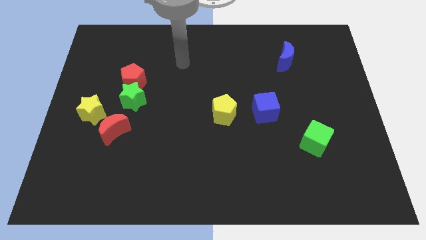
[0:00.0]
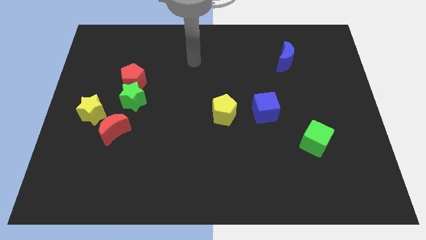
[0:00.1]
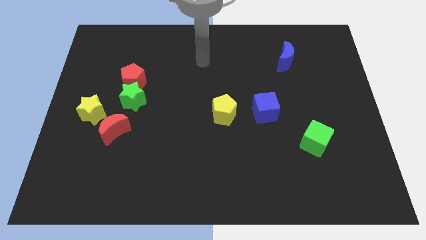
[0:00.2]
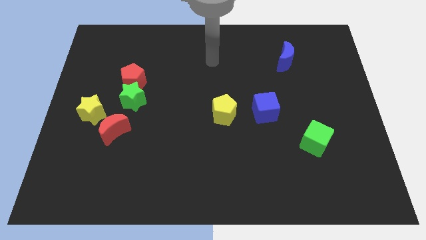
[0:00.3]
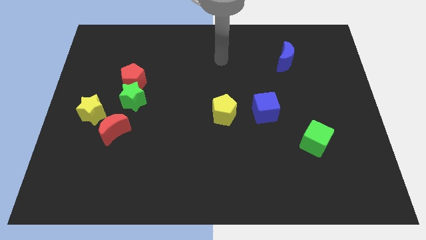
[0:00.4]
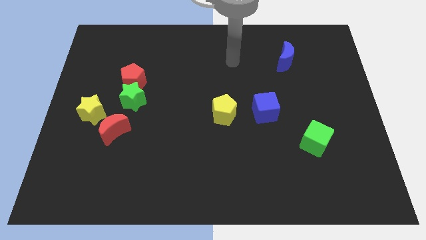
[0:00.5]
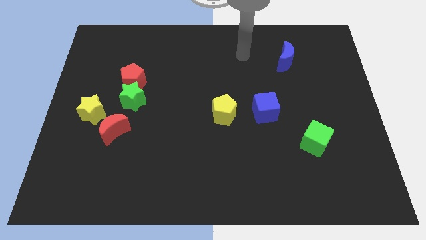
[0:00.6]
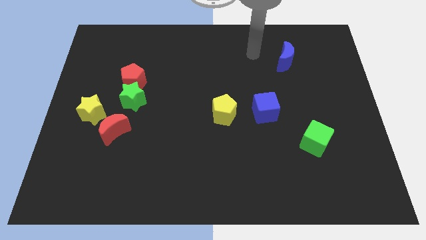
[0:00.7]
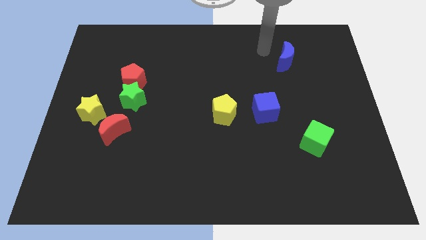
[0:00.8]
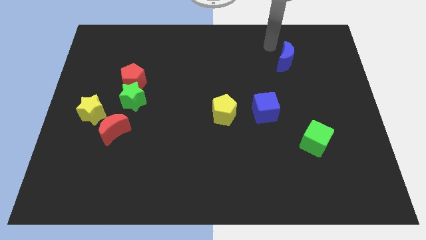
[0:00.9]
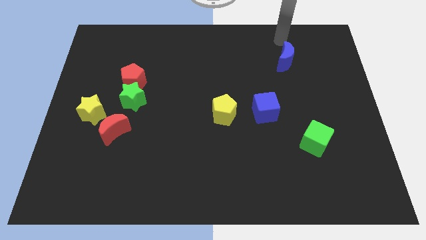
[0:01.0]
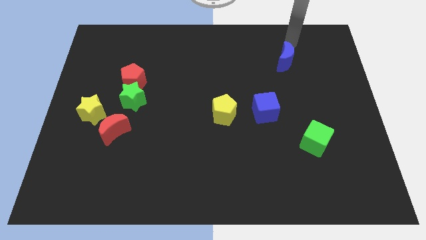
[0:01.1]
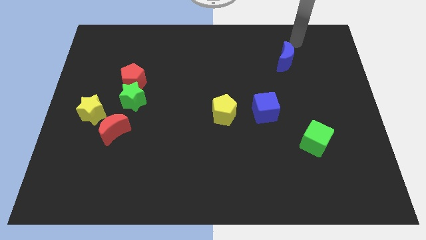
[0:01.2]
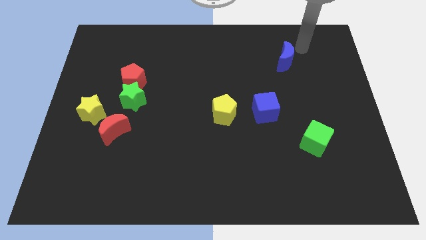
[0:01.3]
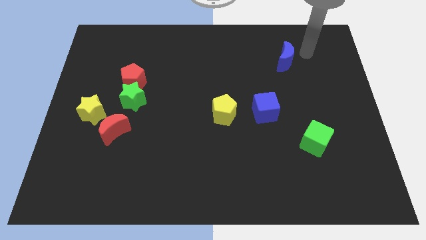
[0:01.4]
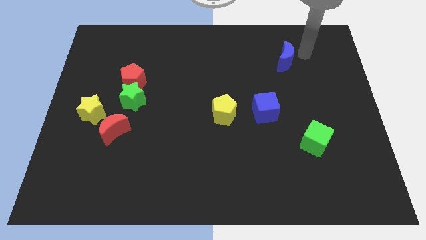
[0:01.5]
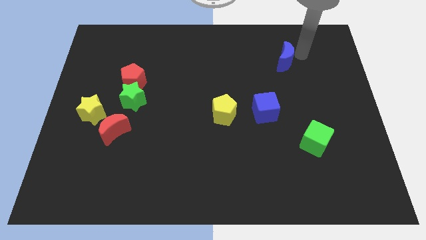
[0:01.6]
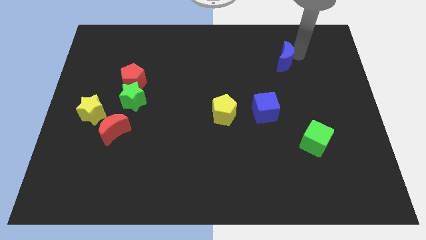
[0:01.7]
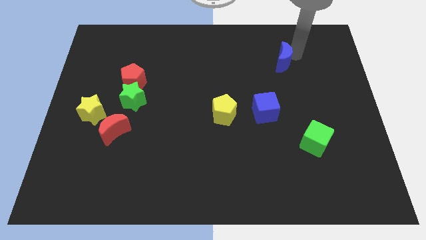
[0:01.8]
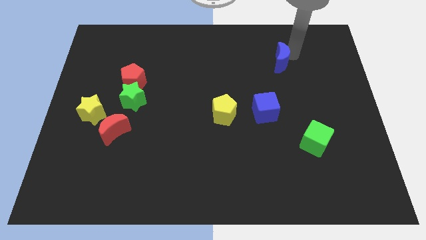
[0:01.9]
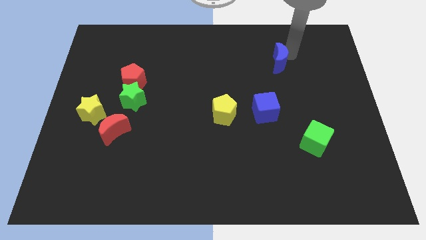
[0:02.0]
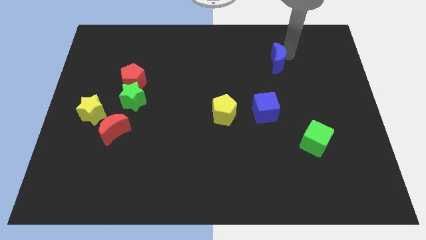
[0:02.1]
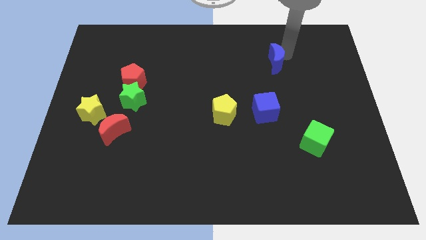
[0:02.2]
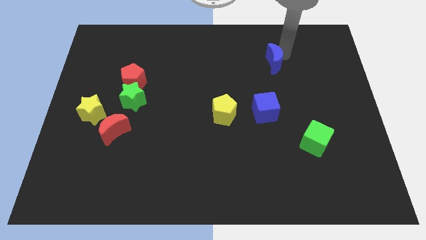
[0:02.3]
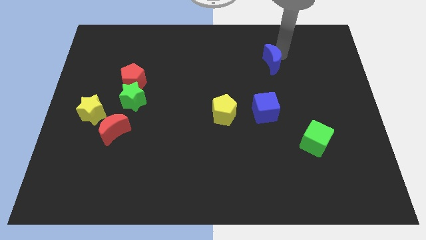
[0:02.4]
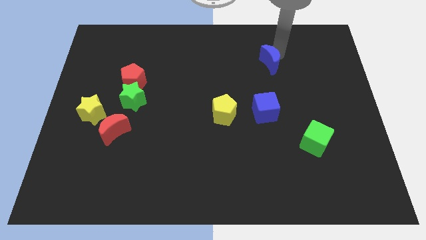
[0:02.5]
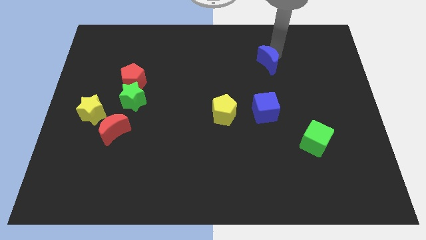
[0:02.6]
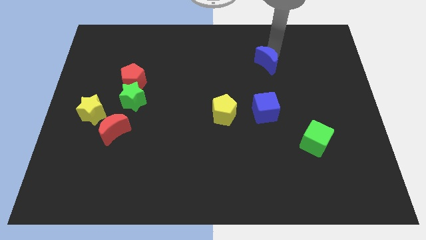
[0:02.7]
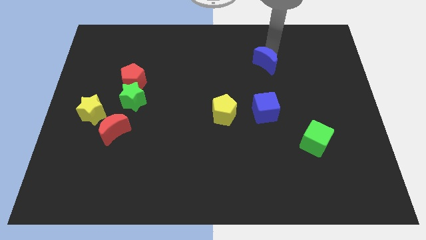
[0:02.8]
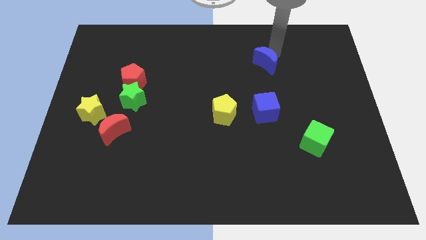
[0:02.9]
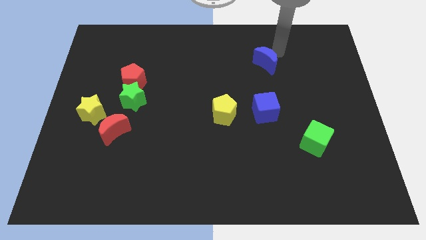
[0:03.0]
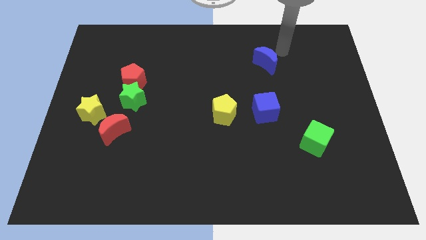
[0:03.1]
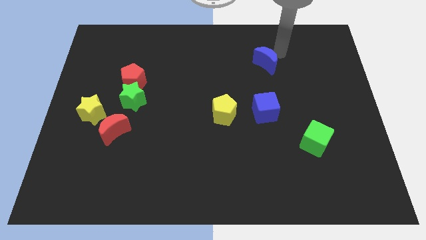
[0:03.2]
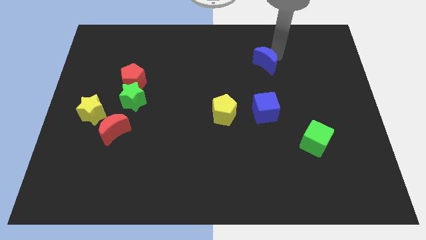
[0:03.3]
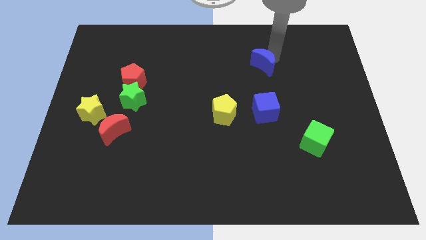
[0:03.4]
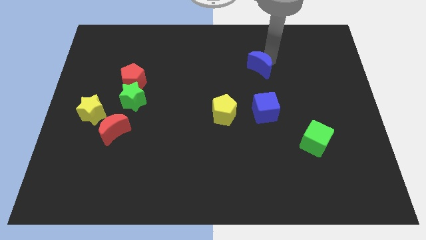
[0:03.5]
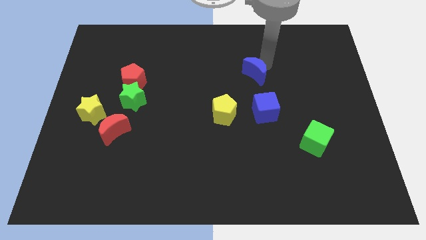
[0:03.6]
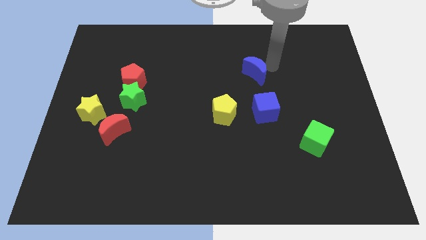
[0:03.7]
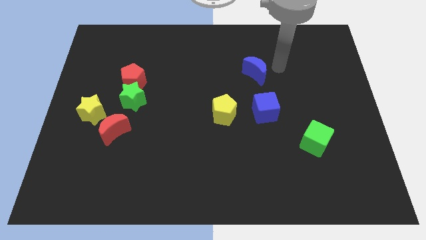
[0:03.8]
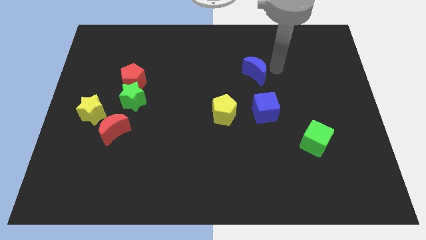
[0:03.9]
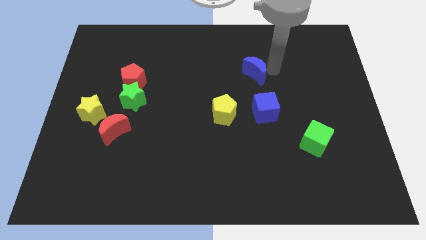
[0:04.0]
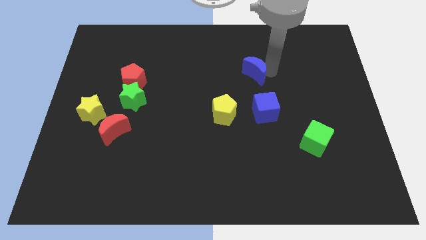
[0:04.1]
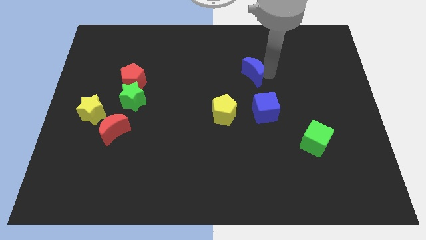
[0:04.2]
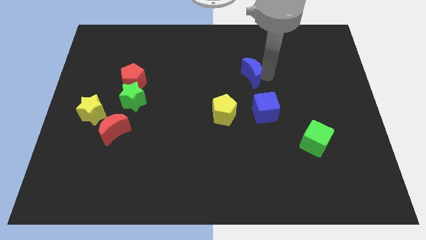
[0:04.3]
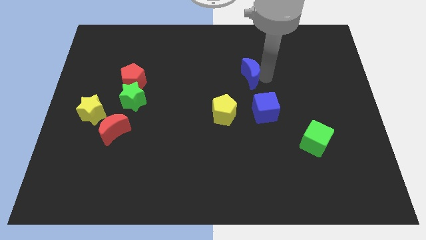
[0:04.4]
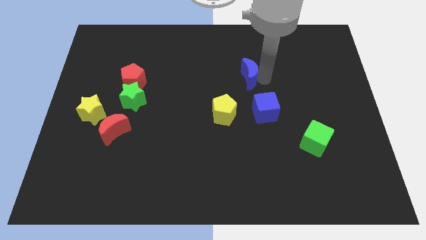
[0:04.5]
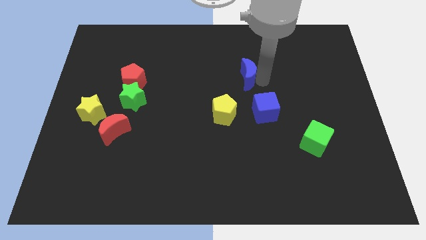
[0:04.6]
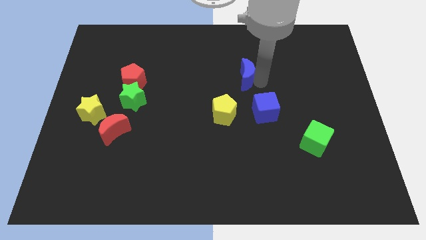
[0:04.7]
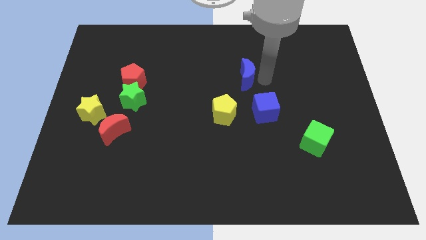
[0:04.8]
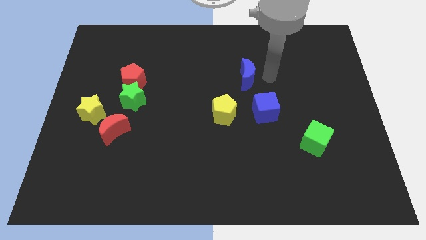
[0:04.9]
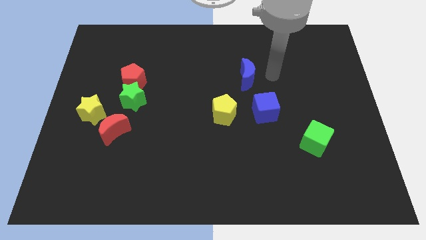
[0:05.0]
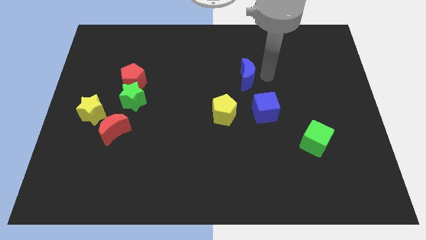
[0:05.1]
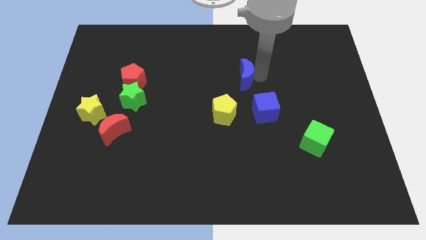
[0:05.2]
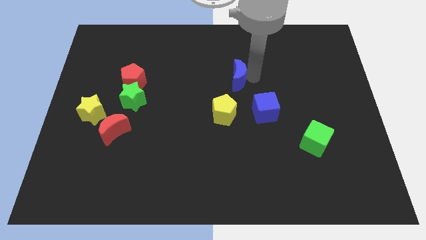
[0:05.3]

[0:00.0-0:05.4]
move the blue moon above the yellow pentagon

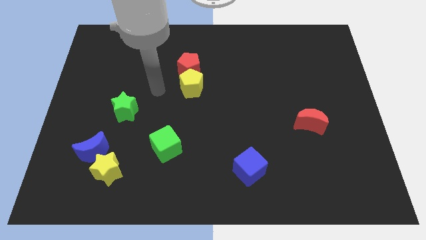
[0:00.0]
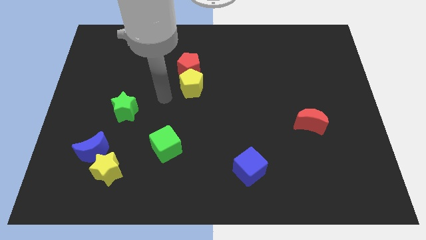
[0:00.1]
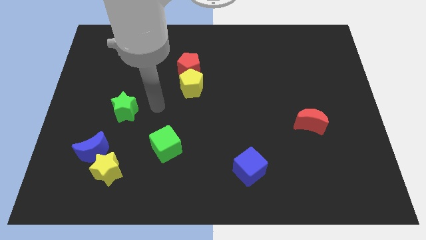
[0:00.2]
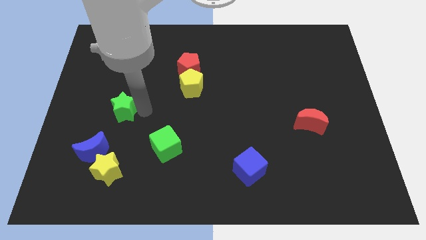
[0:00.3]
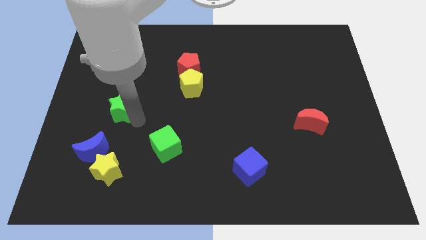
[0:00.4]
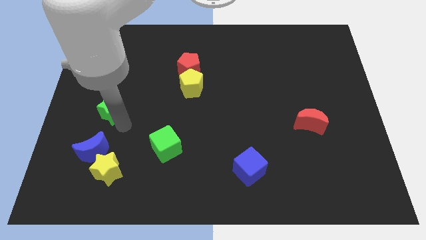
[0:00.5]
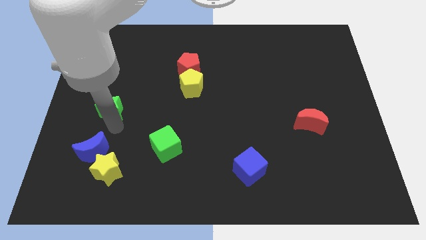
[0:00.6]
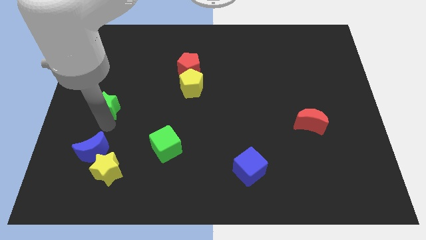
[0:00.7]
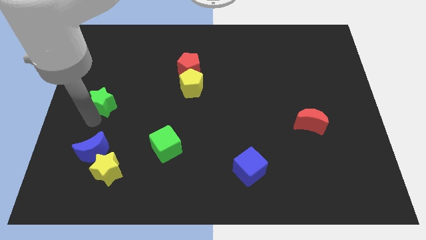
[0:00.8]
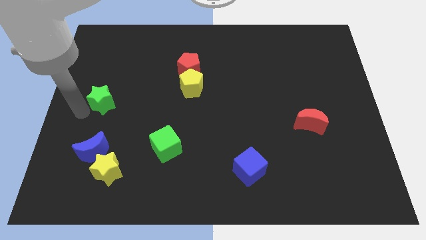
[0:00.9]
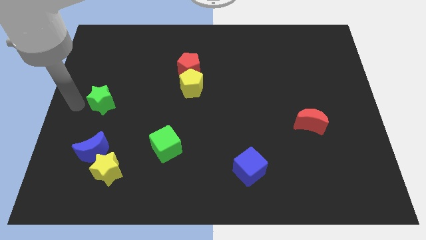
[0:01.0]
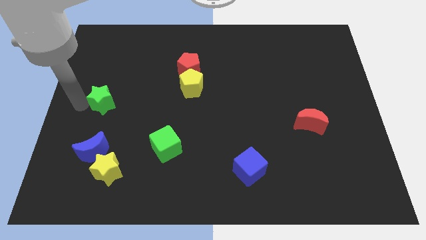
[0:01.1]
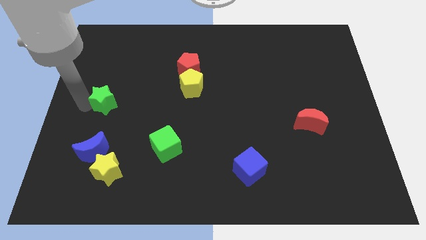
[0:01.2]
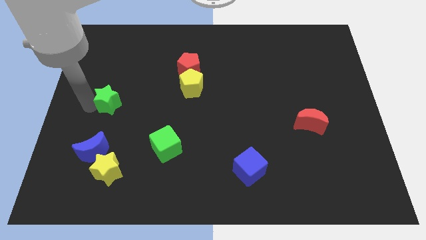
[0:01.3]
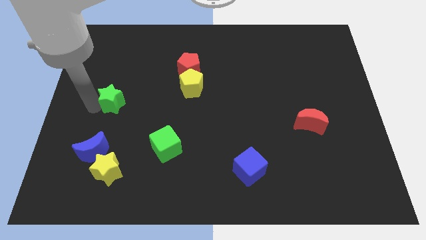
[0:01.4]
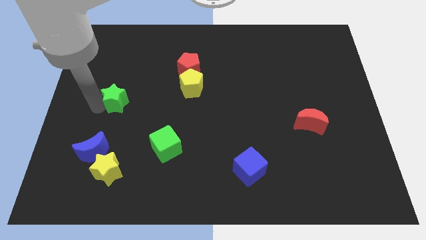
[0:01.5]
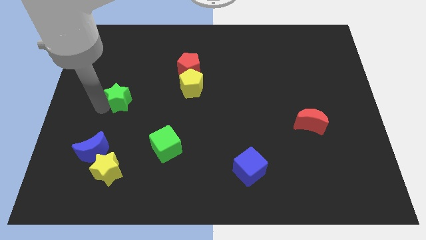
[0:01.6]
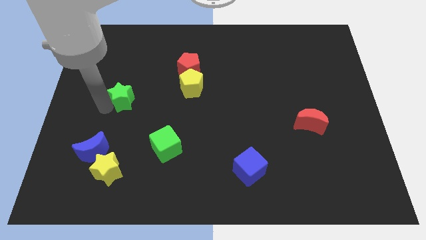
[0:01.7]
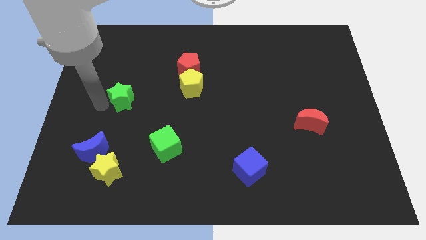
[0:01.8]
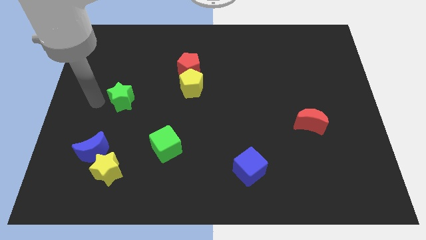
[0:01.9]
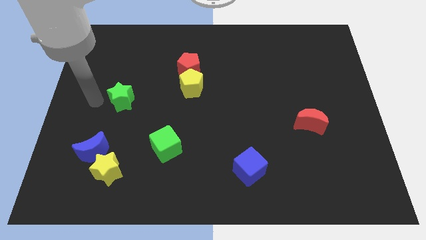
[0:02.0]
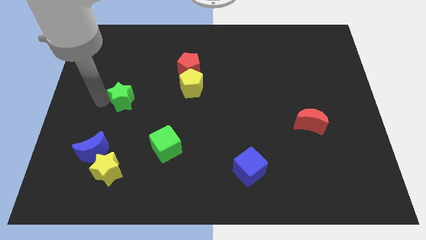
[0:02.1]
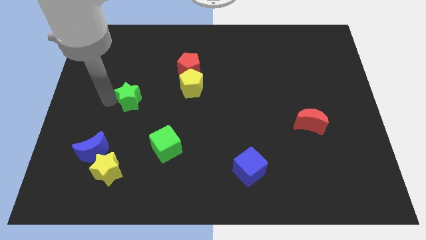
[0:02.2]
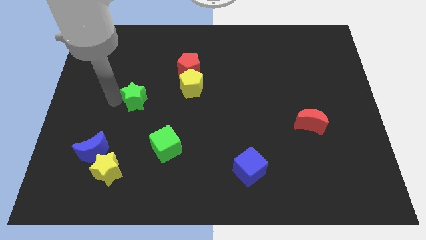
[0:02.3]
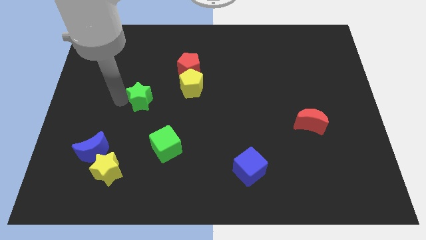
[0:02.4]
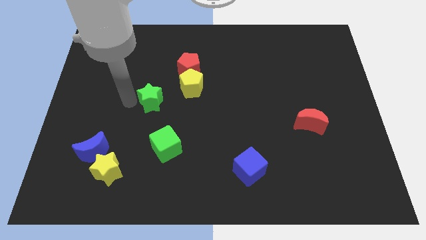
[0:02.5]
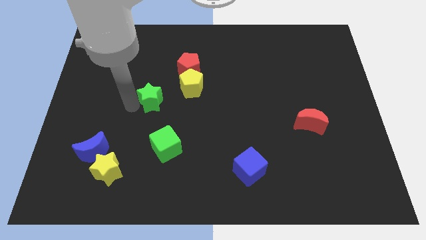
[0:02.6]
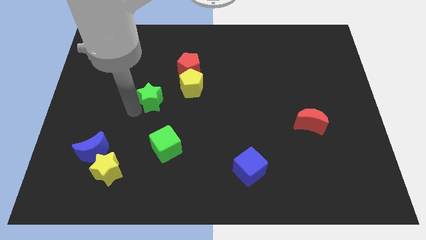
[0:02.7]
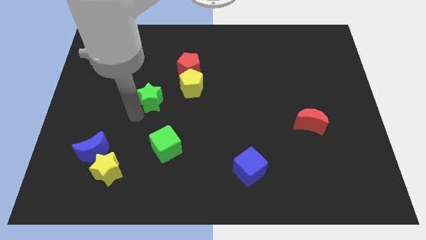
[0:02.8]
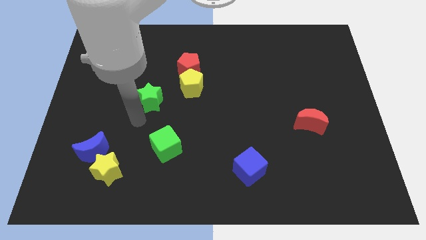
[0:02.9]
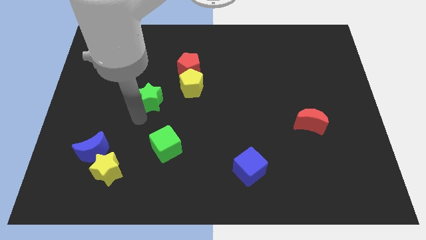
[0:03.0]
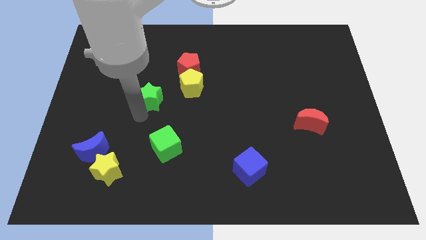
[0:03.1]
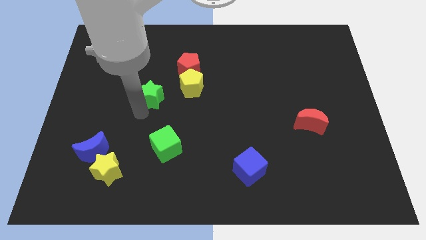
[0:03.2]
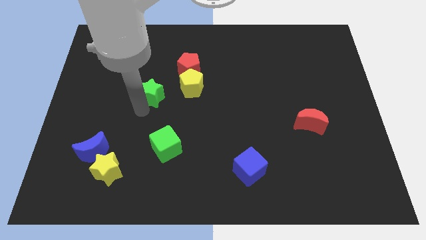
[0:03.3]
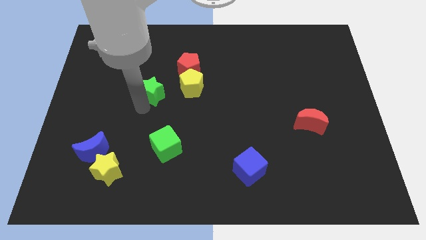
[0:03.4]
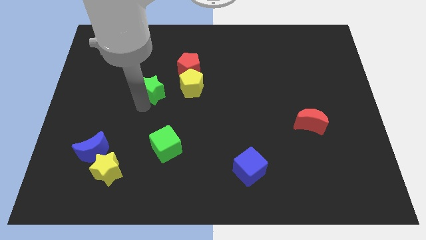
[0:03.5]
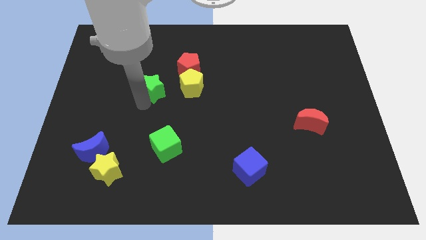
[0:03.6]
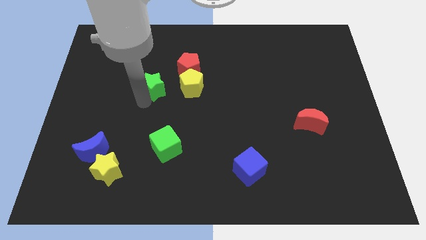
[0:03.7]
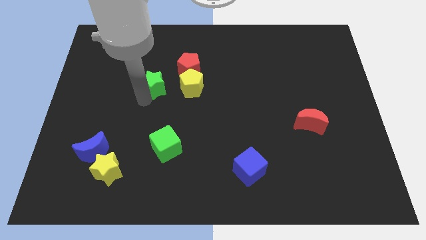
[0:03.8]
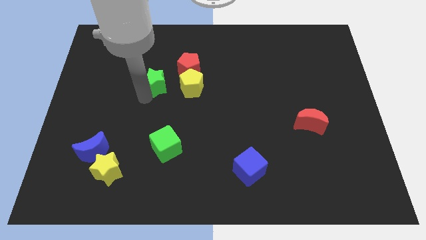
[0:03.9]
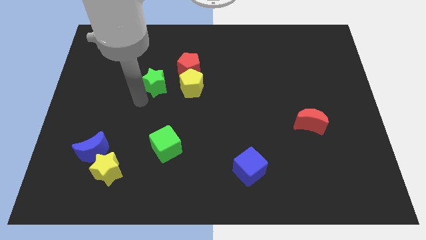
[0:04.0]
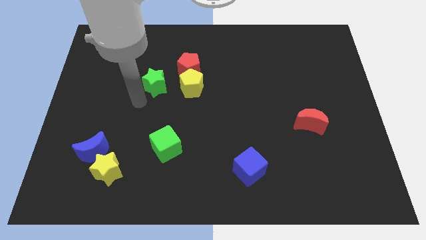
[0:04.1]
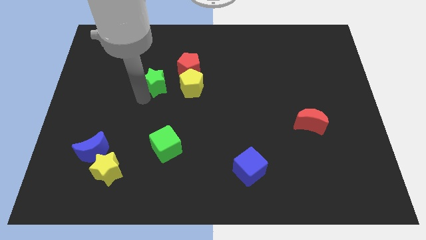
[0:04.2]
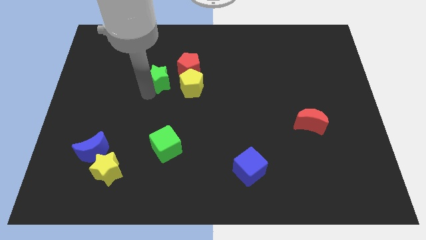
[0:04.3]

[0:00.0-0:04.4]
put the green star diagonally up and to the left of the yellow pentagon
